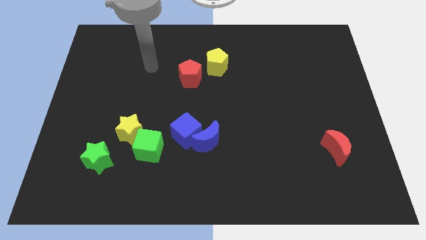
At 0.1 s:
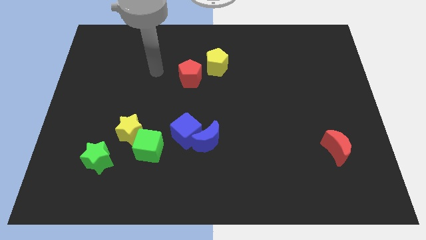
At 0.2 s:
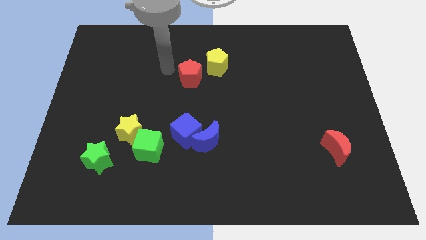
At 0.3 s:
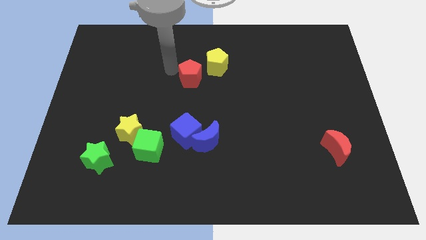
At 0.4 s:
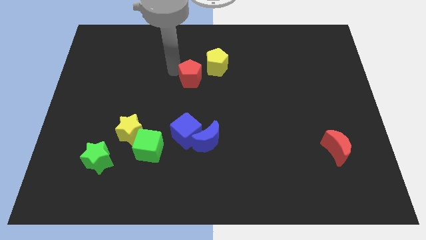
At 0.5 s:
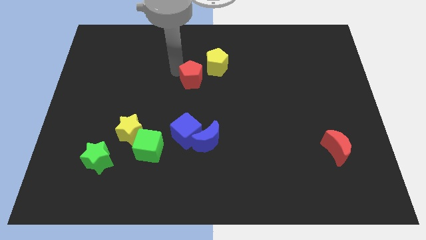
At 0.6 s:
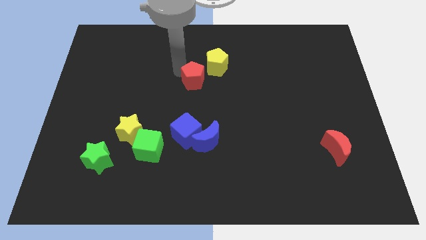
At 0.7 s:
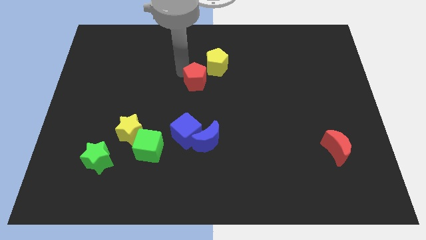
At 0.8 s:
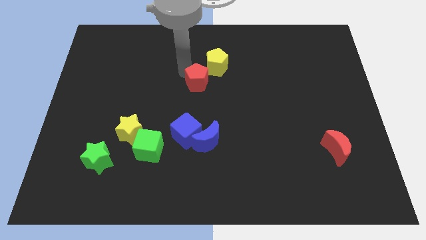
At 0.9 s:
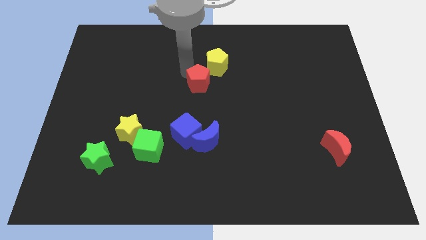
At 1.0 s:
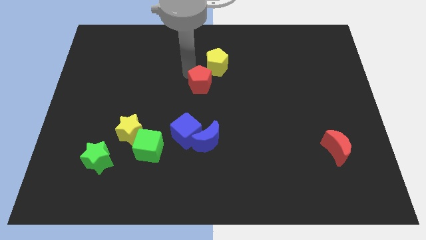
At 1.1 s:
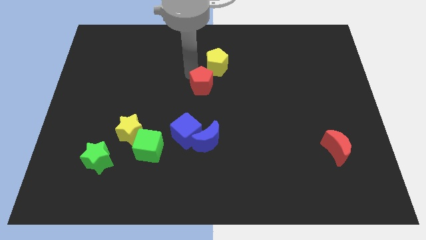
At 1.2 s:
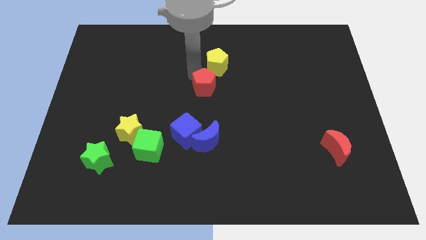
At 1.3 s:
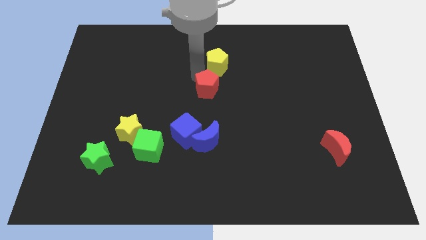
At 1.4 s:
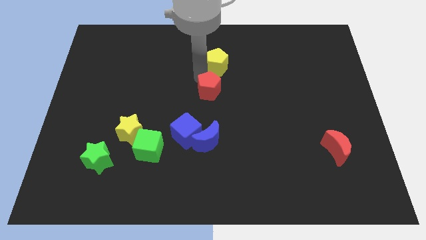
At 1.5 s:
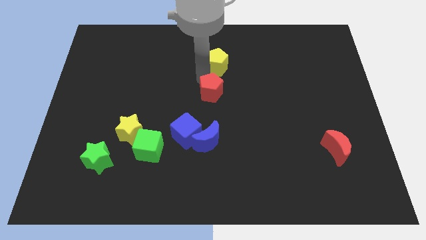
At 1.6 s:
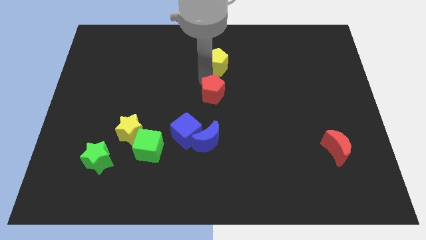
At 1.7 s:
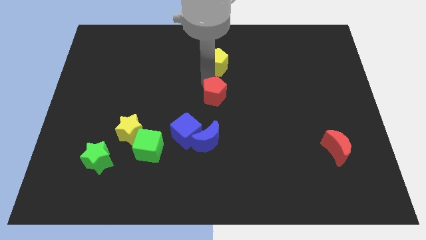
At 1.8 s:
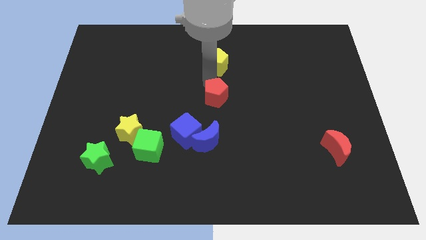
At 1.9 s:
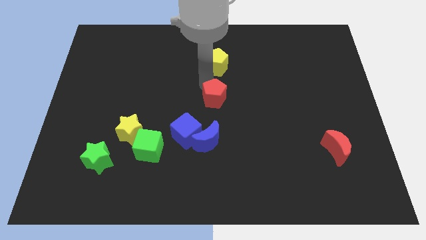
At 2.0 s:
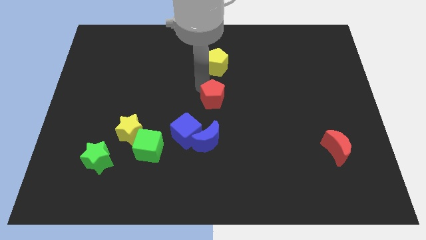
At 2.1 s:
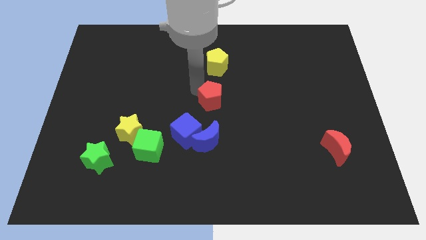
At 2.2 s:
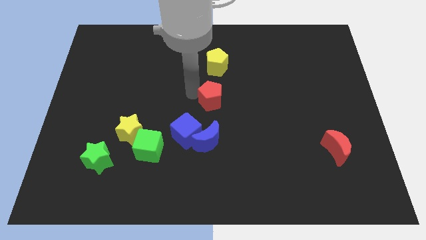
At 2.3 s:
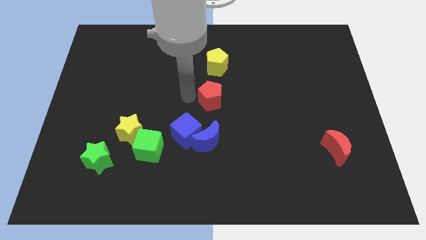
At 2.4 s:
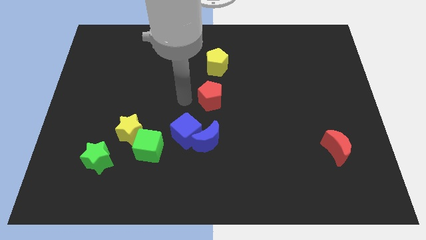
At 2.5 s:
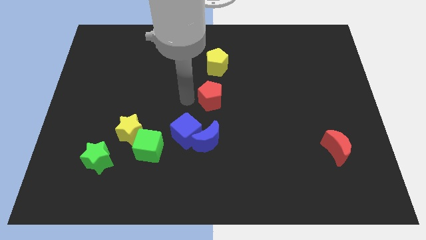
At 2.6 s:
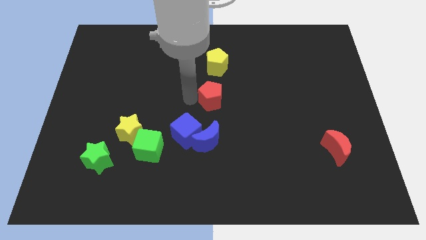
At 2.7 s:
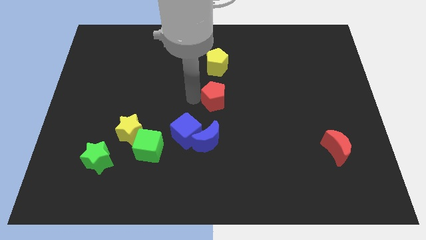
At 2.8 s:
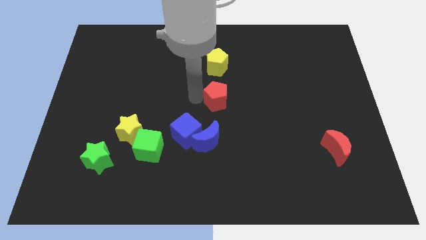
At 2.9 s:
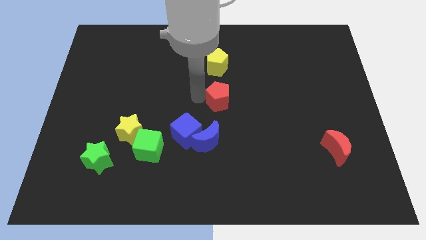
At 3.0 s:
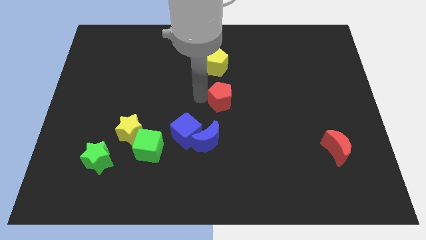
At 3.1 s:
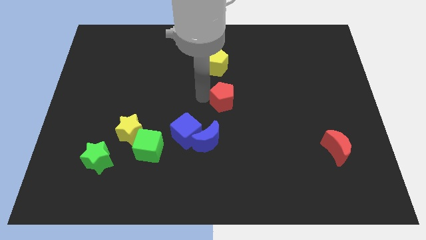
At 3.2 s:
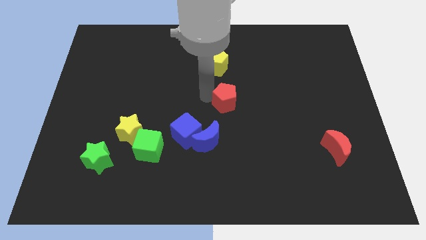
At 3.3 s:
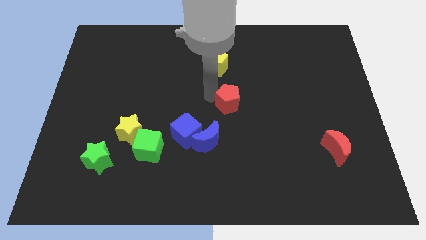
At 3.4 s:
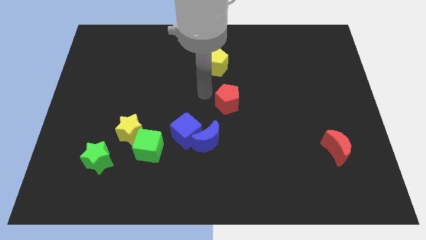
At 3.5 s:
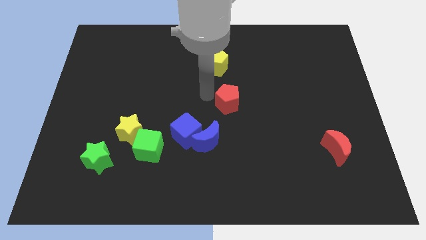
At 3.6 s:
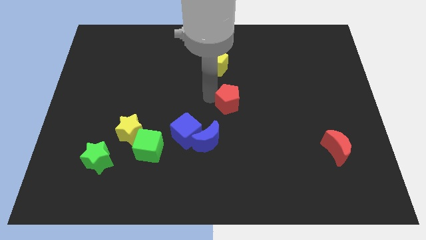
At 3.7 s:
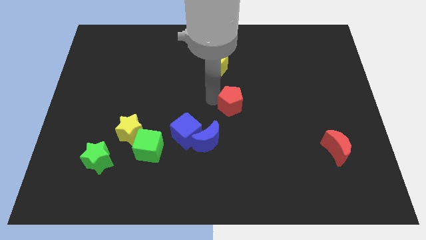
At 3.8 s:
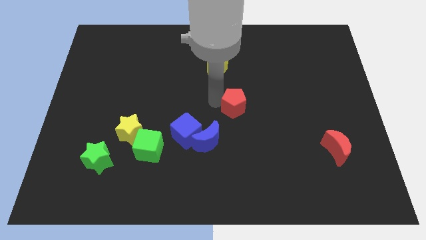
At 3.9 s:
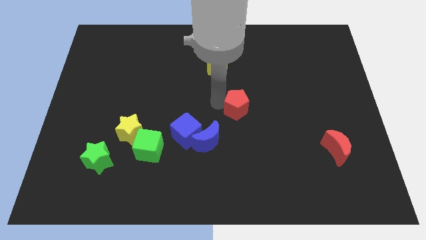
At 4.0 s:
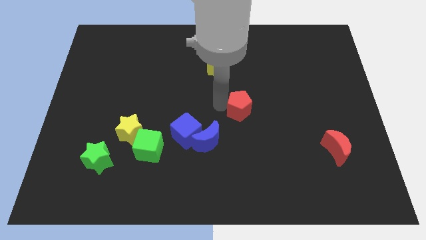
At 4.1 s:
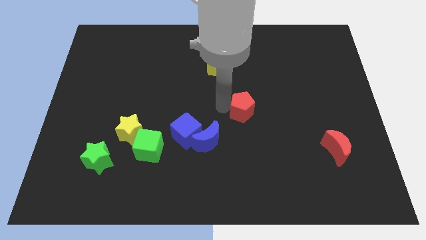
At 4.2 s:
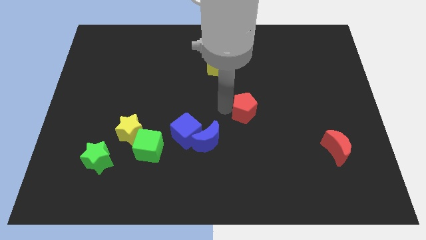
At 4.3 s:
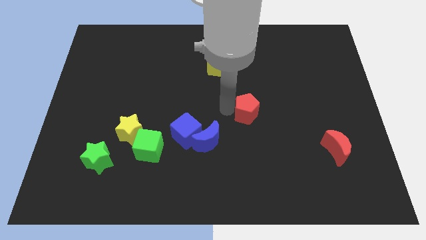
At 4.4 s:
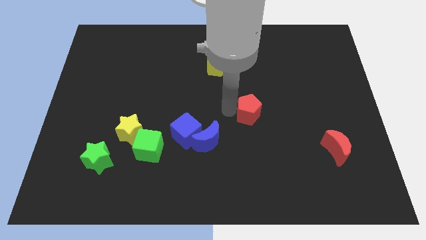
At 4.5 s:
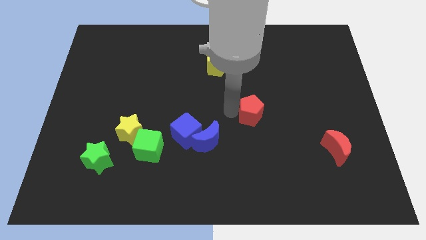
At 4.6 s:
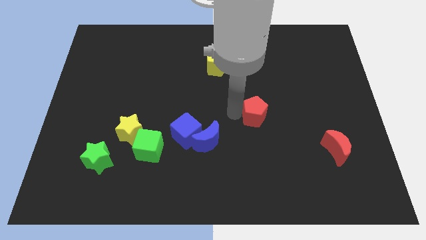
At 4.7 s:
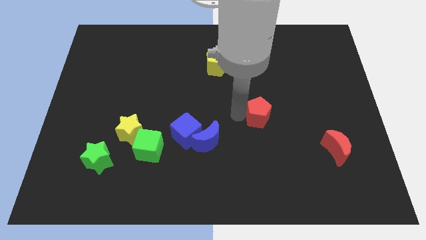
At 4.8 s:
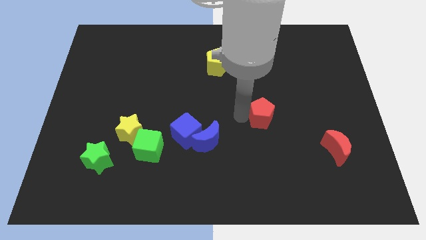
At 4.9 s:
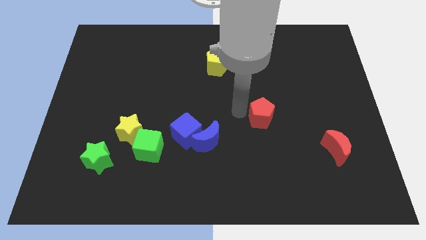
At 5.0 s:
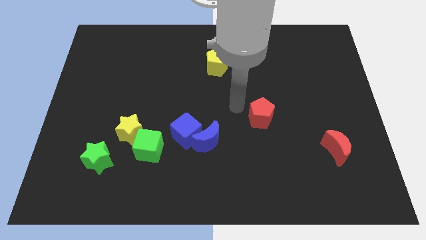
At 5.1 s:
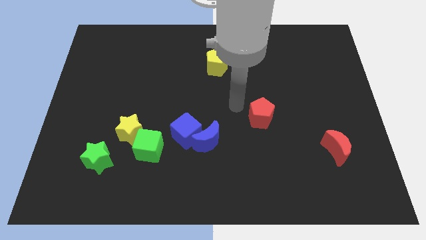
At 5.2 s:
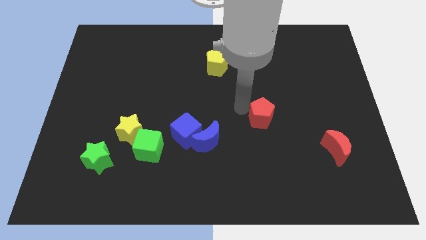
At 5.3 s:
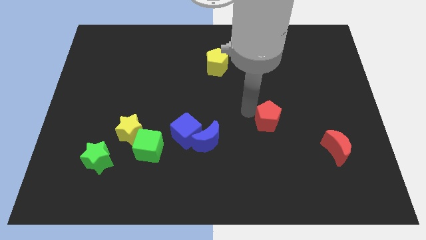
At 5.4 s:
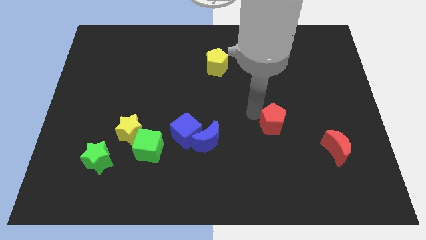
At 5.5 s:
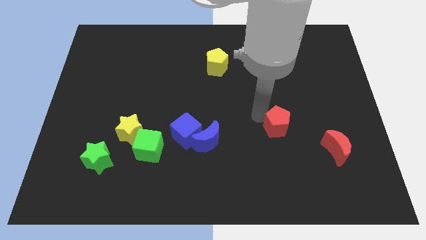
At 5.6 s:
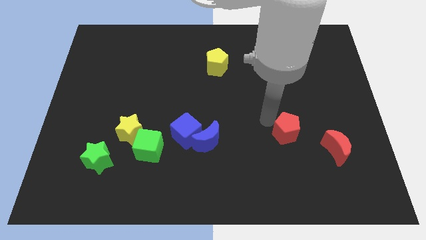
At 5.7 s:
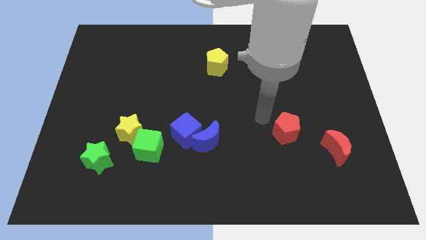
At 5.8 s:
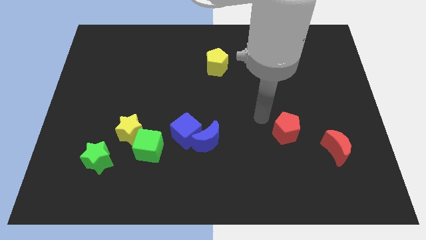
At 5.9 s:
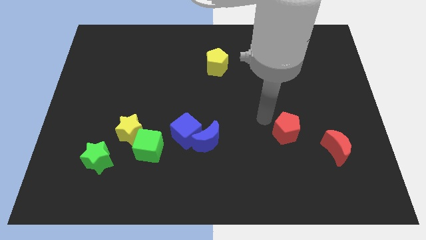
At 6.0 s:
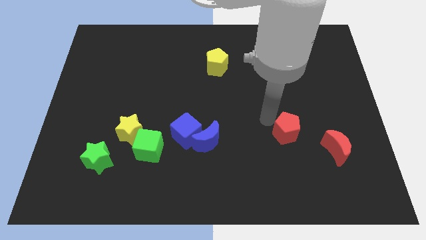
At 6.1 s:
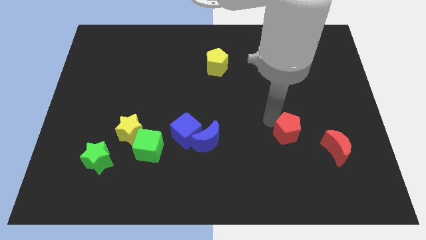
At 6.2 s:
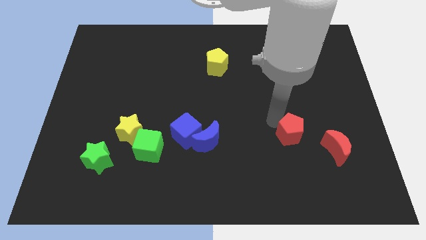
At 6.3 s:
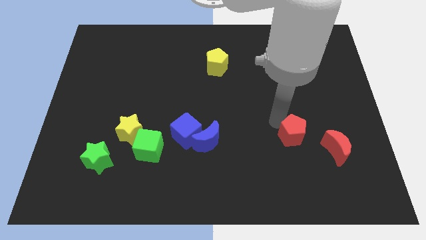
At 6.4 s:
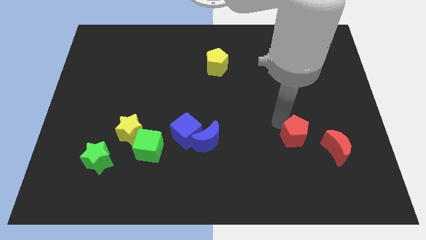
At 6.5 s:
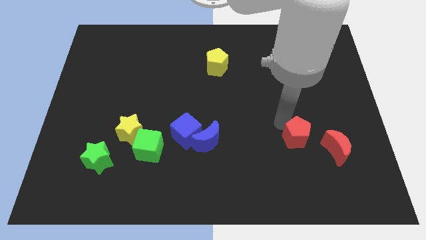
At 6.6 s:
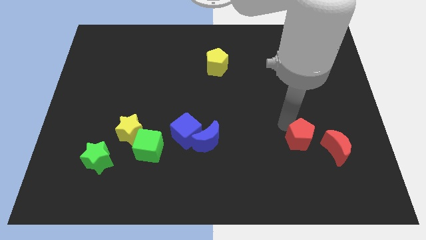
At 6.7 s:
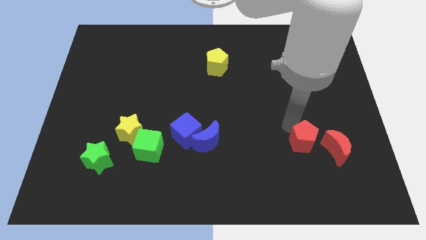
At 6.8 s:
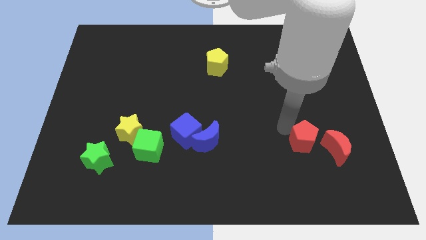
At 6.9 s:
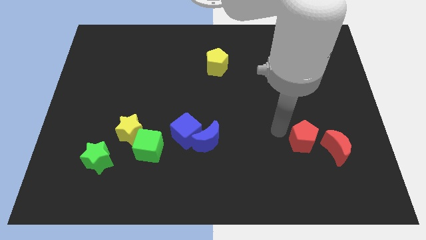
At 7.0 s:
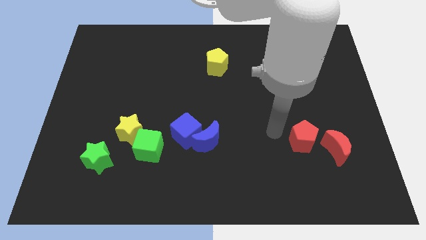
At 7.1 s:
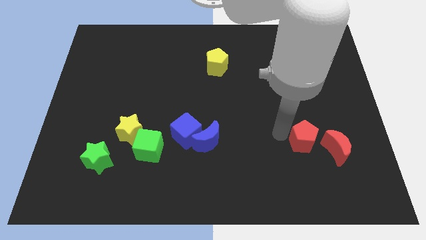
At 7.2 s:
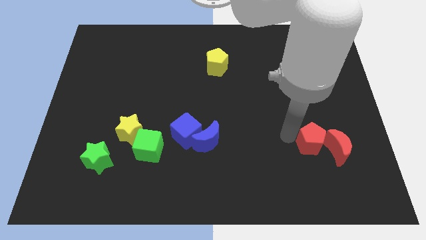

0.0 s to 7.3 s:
move the red pentagon to the red moon
